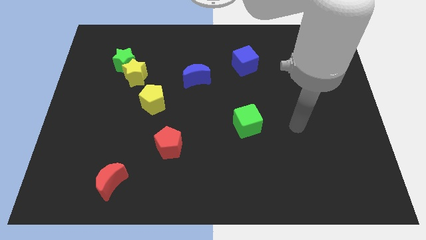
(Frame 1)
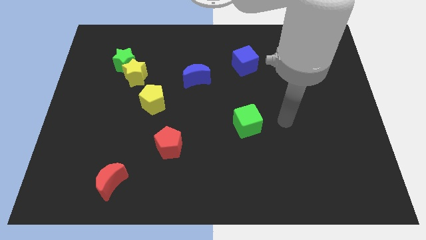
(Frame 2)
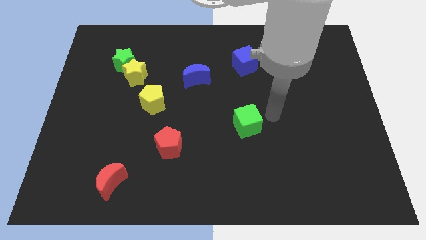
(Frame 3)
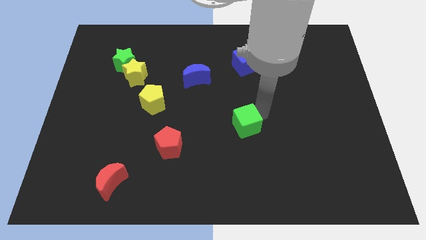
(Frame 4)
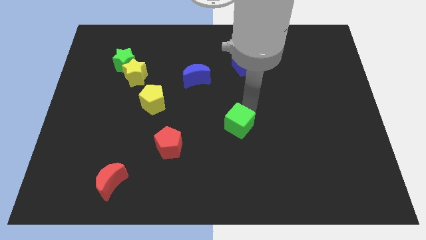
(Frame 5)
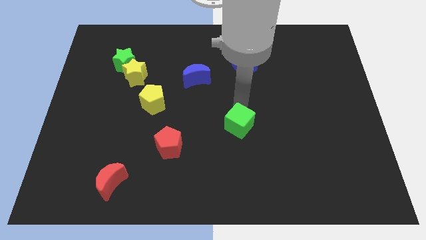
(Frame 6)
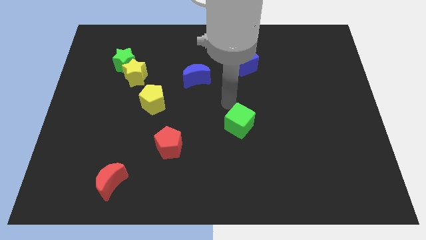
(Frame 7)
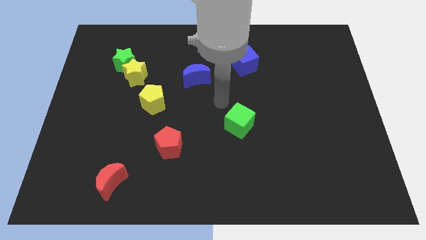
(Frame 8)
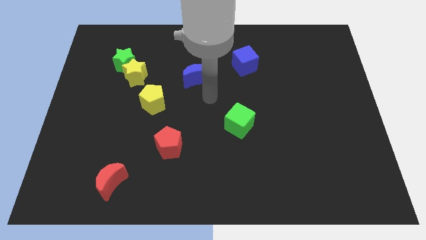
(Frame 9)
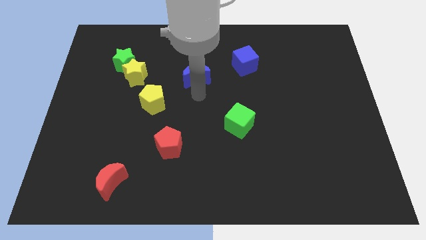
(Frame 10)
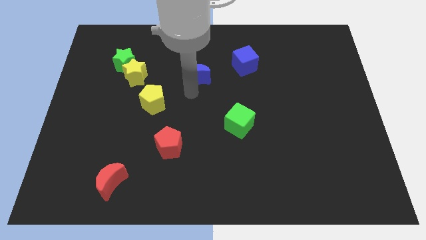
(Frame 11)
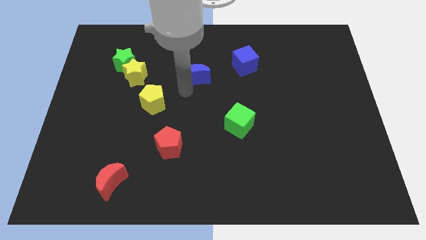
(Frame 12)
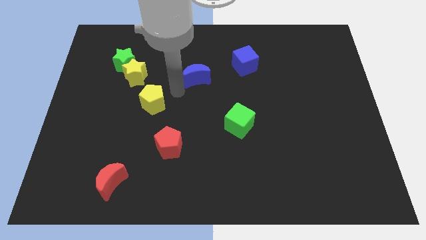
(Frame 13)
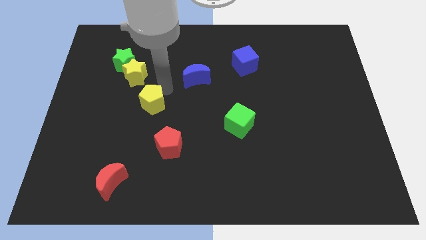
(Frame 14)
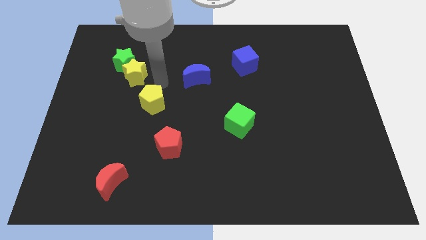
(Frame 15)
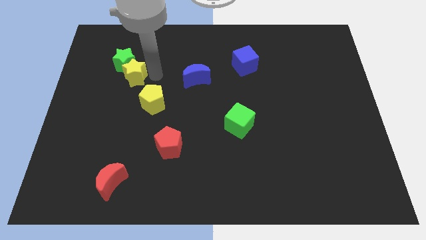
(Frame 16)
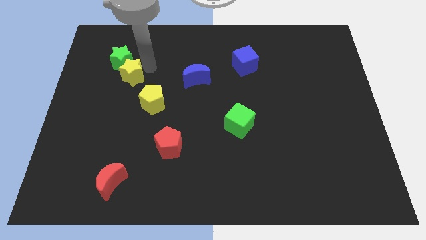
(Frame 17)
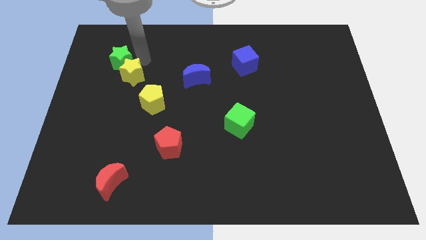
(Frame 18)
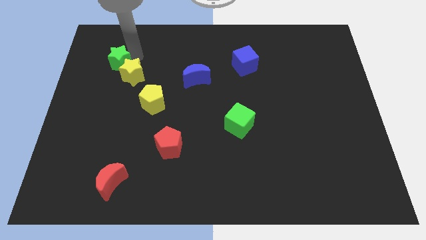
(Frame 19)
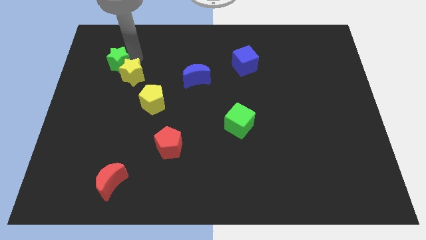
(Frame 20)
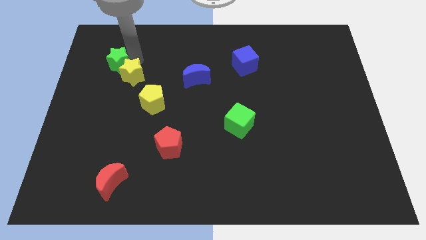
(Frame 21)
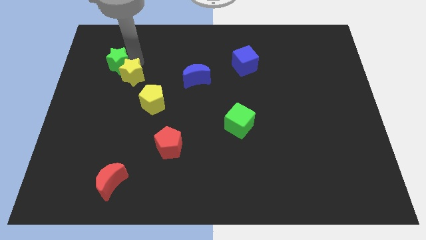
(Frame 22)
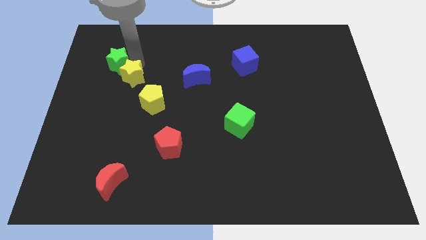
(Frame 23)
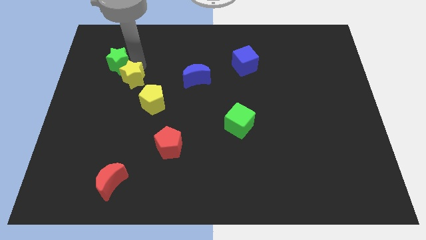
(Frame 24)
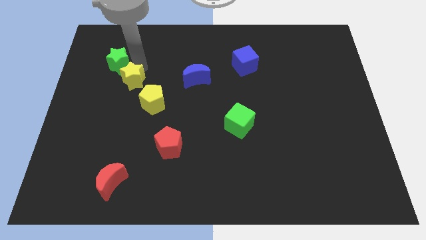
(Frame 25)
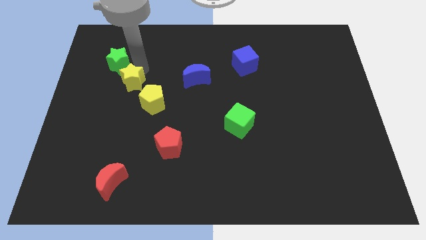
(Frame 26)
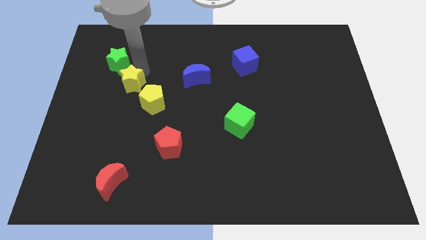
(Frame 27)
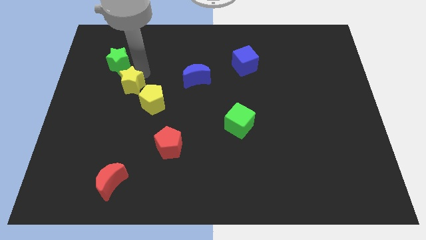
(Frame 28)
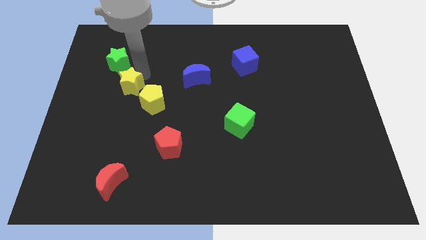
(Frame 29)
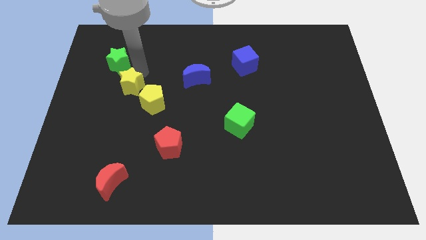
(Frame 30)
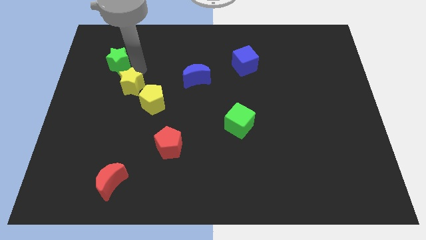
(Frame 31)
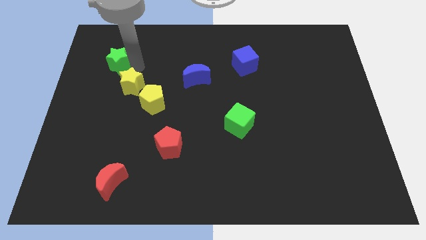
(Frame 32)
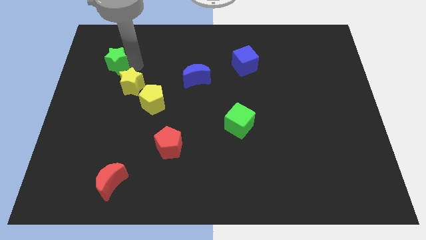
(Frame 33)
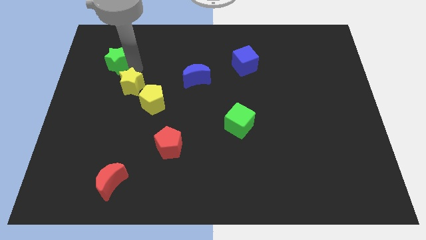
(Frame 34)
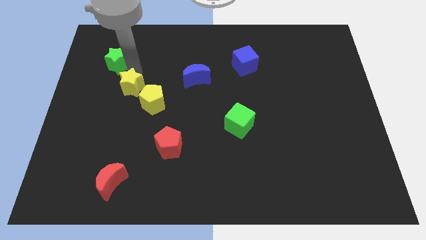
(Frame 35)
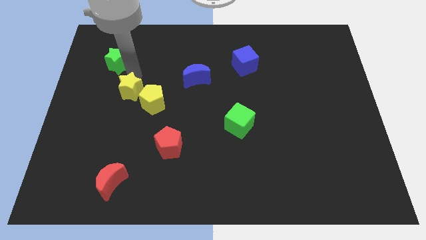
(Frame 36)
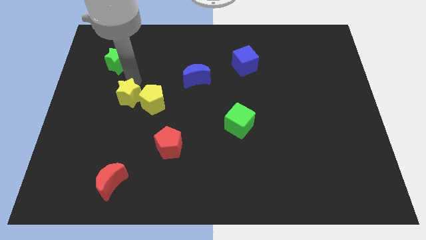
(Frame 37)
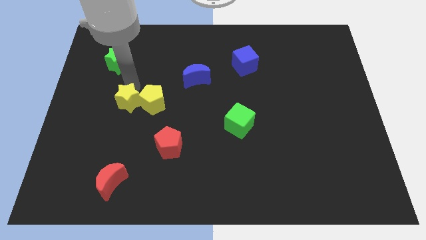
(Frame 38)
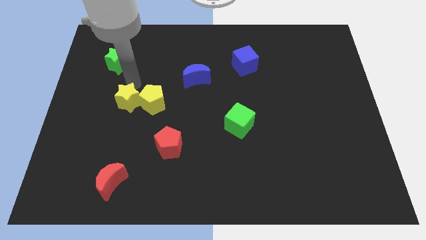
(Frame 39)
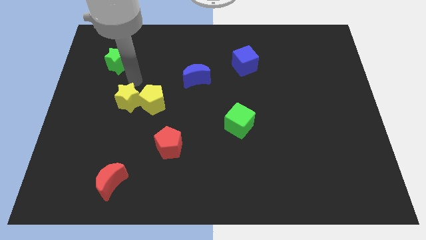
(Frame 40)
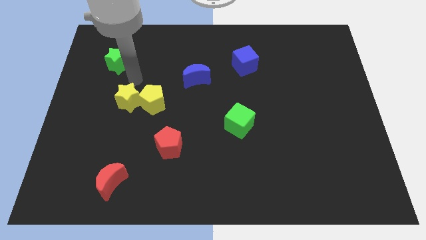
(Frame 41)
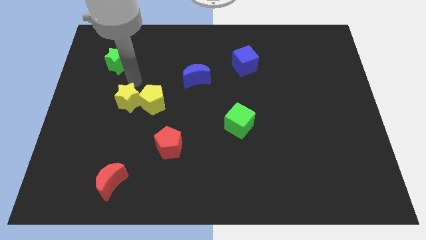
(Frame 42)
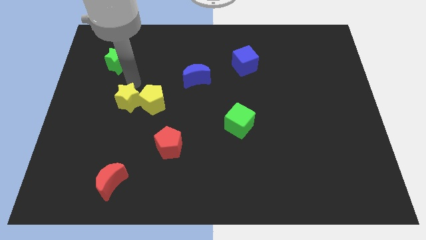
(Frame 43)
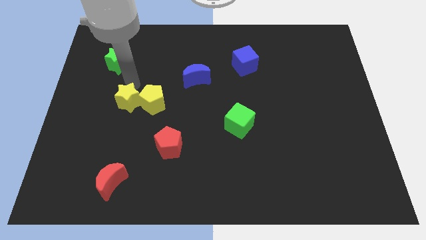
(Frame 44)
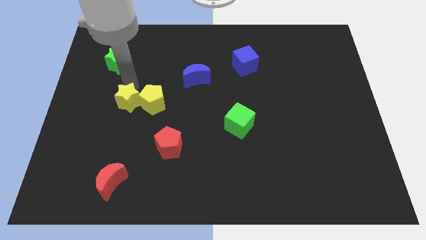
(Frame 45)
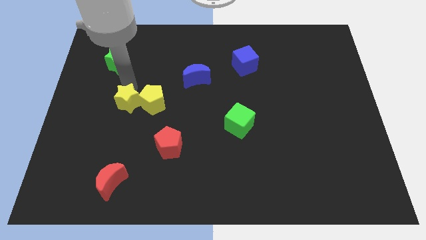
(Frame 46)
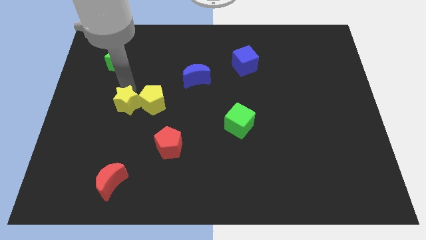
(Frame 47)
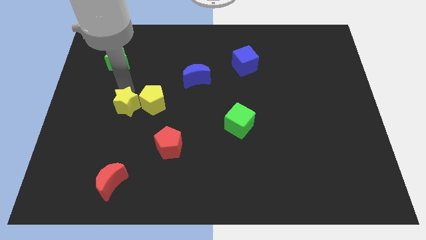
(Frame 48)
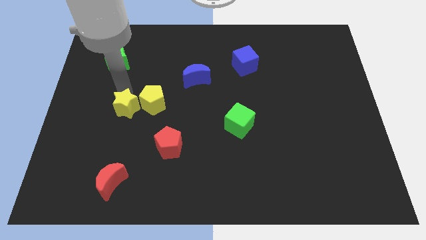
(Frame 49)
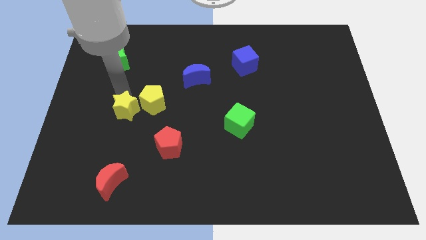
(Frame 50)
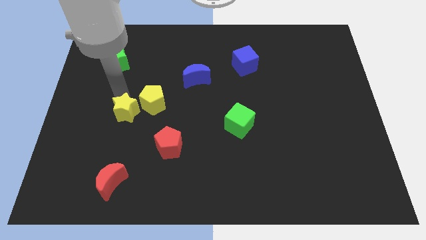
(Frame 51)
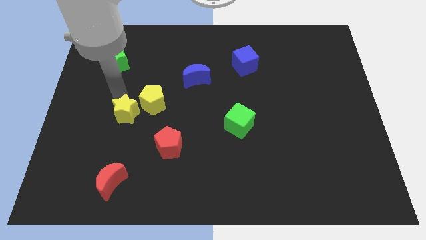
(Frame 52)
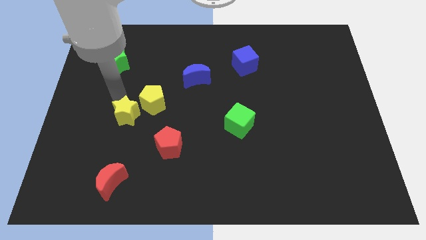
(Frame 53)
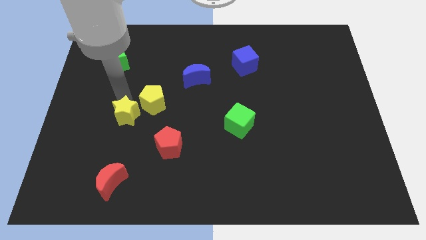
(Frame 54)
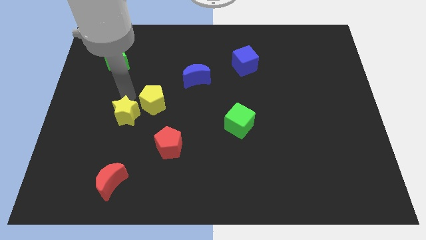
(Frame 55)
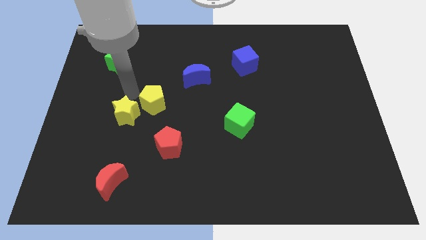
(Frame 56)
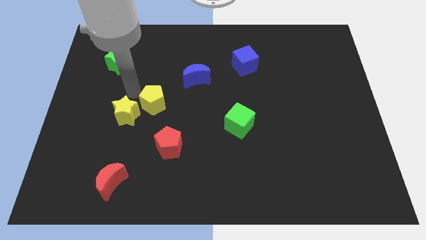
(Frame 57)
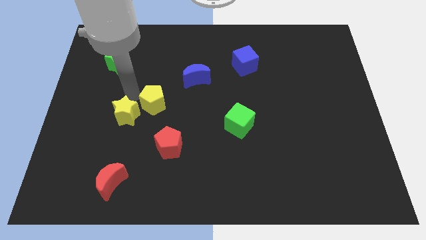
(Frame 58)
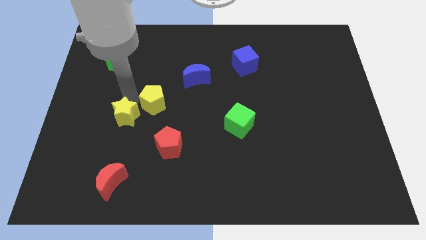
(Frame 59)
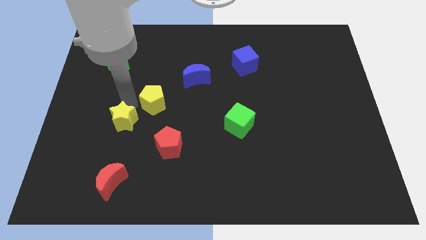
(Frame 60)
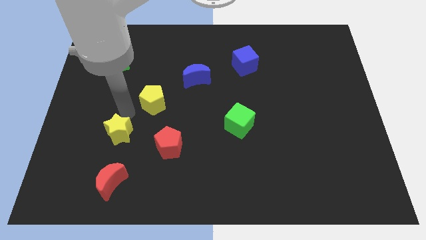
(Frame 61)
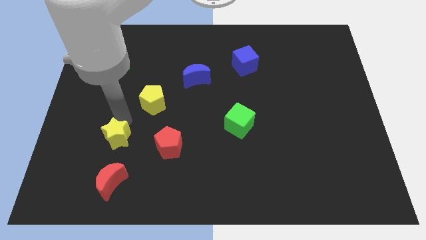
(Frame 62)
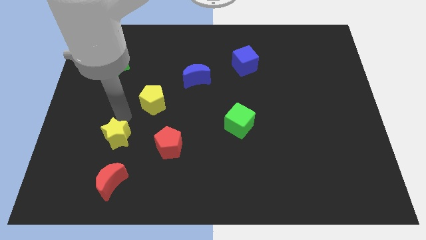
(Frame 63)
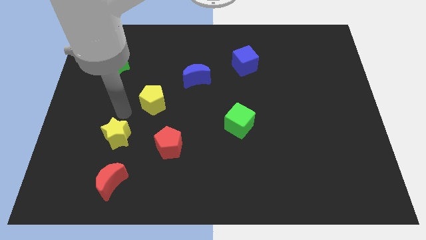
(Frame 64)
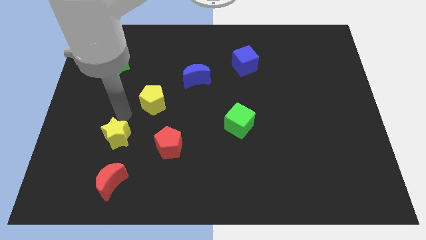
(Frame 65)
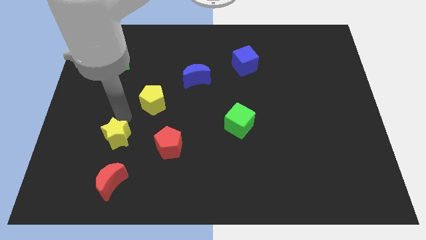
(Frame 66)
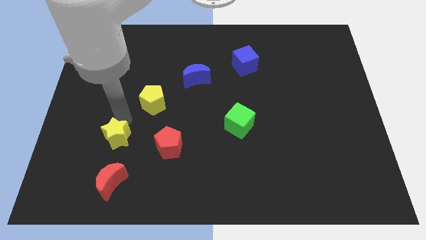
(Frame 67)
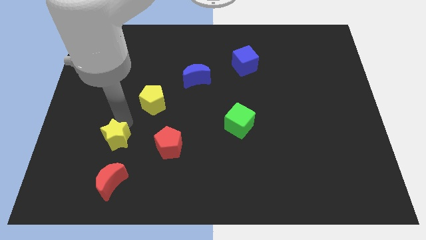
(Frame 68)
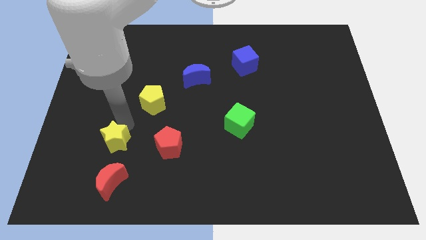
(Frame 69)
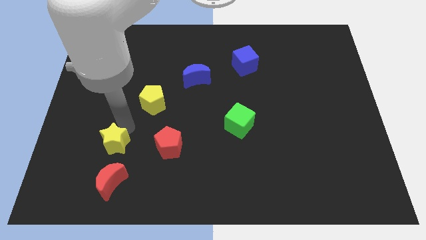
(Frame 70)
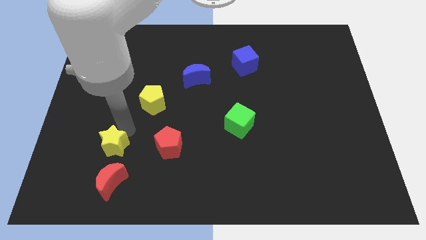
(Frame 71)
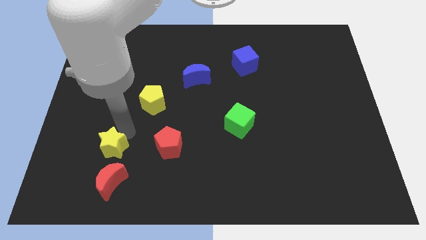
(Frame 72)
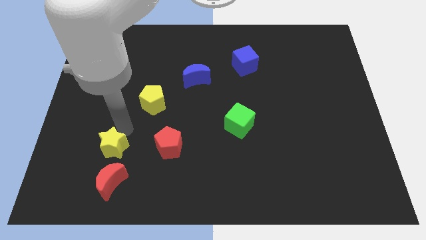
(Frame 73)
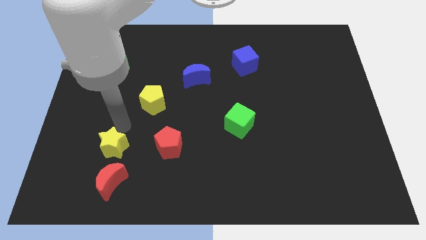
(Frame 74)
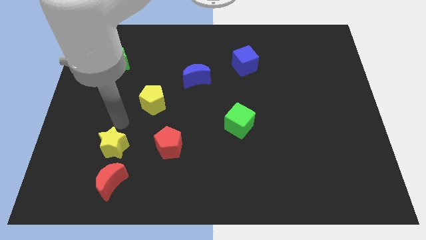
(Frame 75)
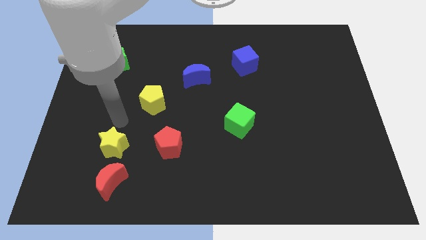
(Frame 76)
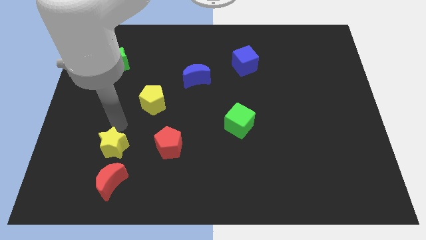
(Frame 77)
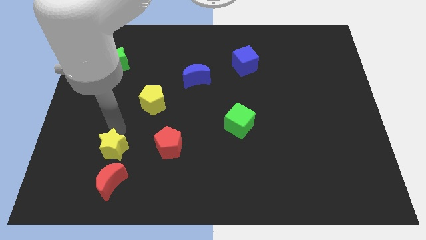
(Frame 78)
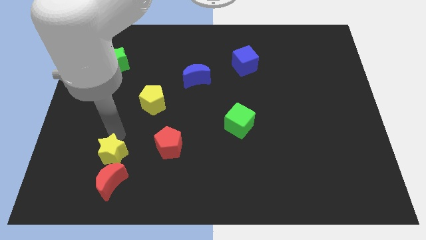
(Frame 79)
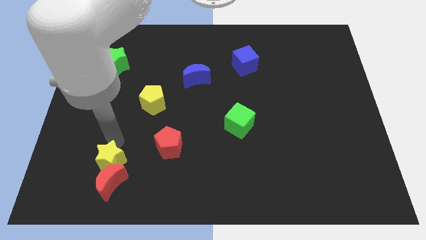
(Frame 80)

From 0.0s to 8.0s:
push the yellow star close to the red moon
